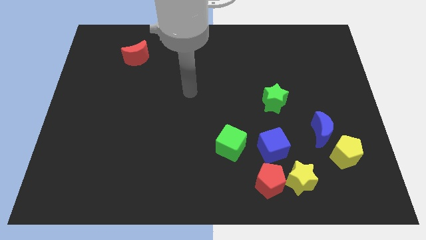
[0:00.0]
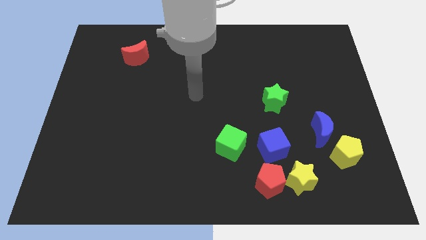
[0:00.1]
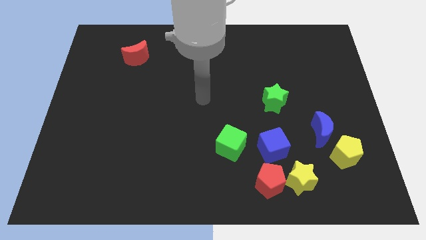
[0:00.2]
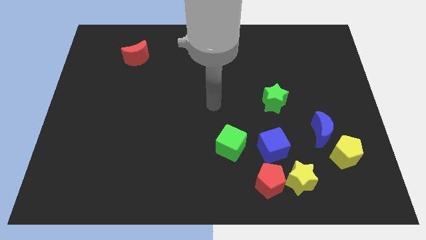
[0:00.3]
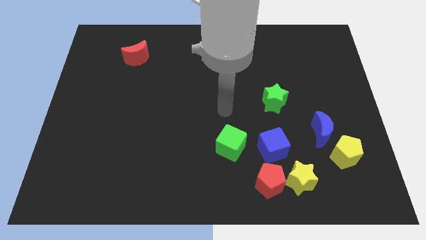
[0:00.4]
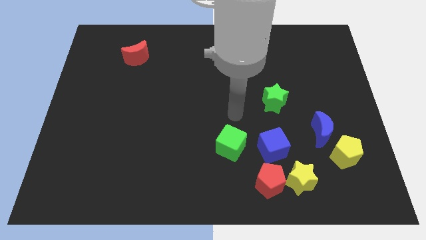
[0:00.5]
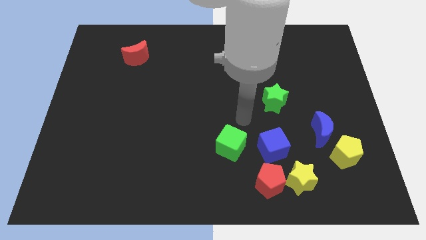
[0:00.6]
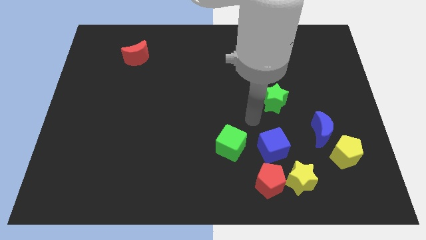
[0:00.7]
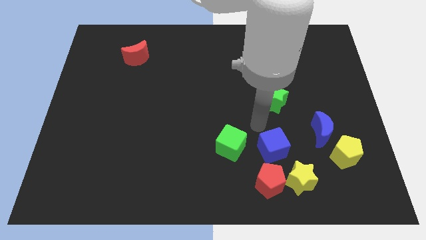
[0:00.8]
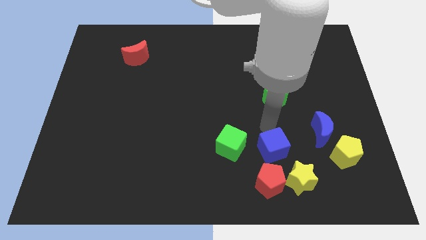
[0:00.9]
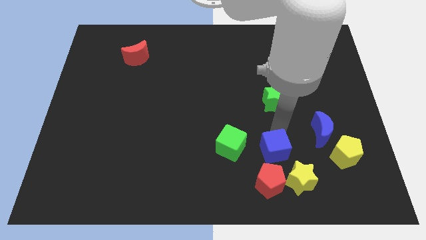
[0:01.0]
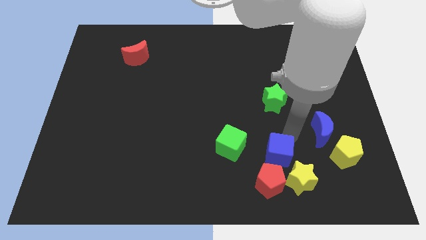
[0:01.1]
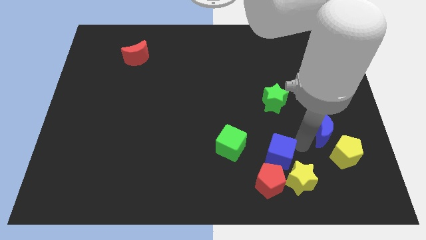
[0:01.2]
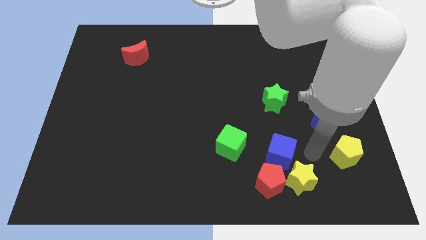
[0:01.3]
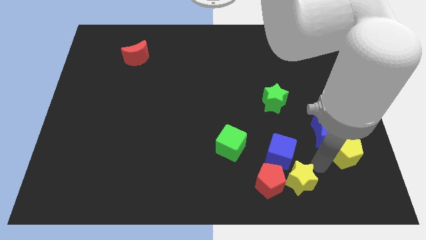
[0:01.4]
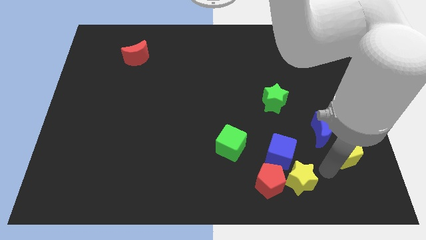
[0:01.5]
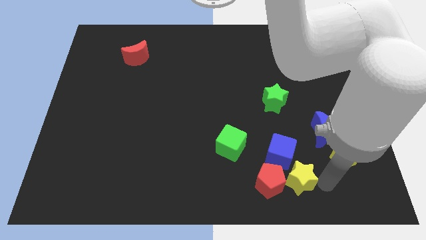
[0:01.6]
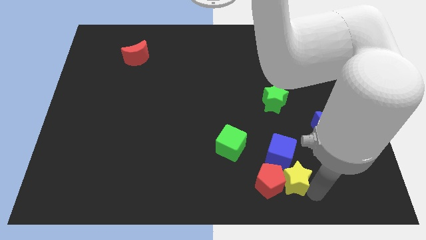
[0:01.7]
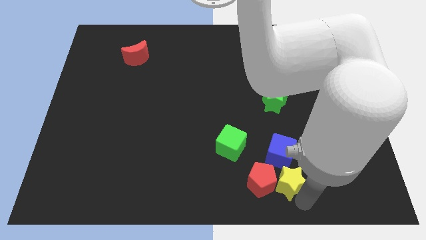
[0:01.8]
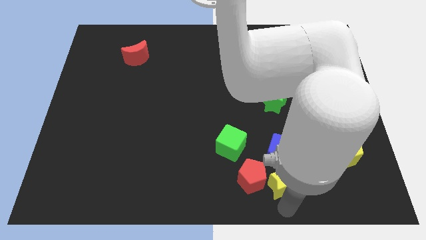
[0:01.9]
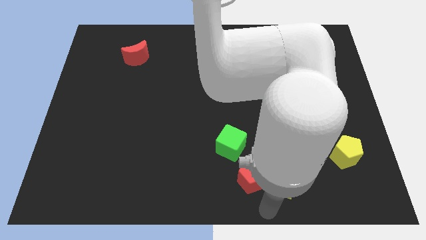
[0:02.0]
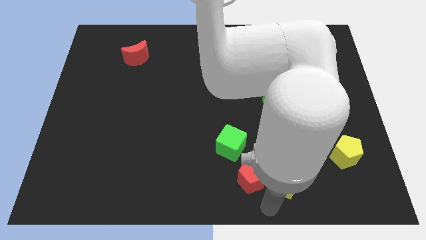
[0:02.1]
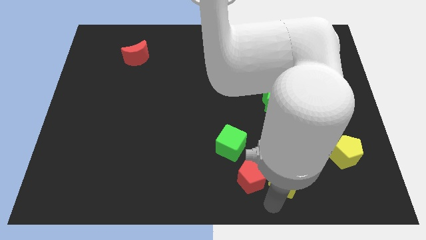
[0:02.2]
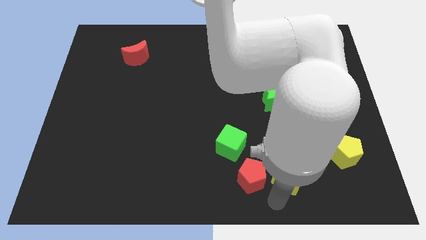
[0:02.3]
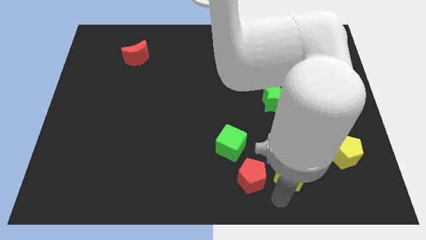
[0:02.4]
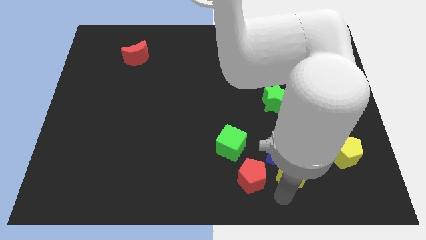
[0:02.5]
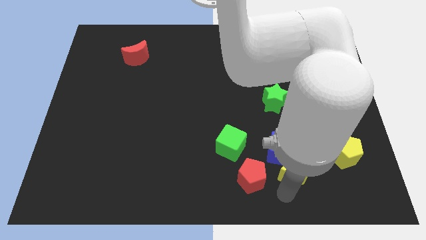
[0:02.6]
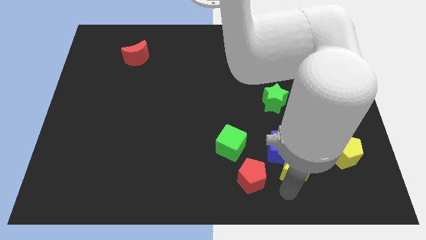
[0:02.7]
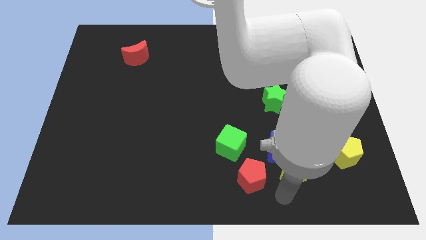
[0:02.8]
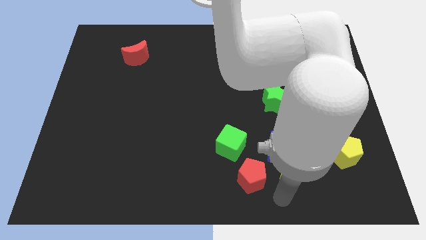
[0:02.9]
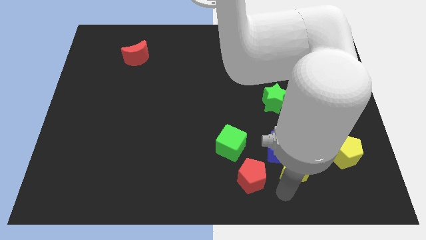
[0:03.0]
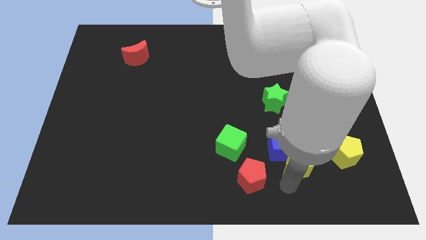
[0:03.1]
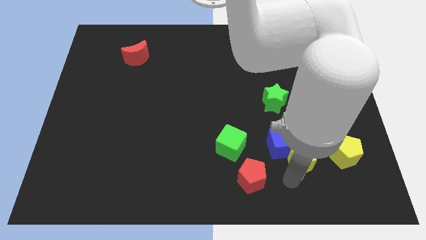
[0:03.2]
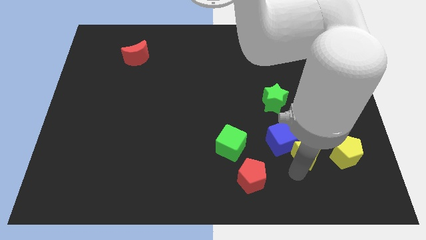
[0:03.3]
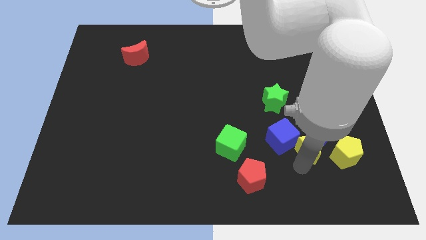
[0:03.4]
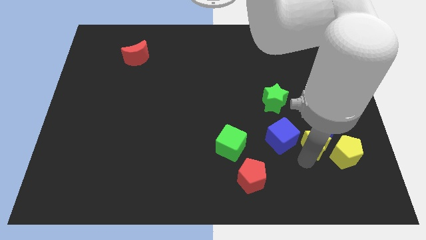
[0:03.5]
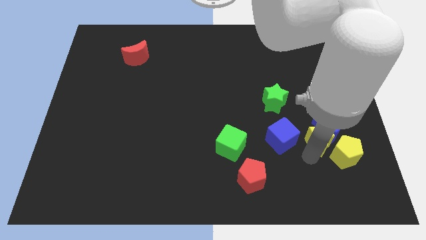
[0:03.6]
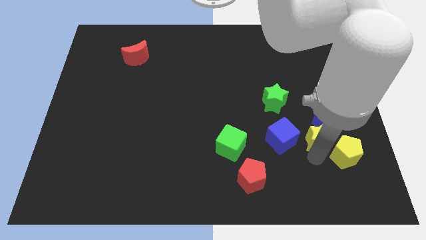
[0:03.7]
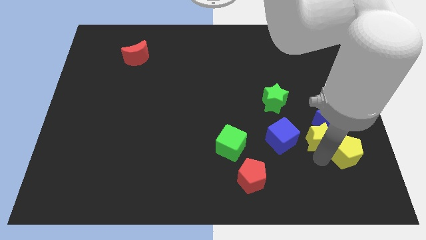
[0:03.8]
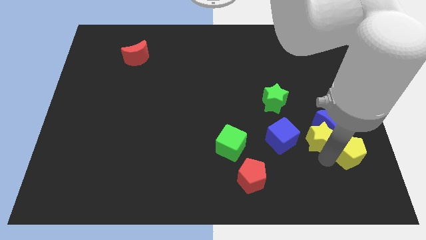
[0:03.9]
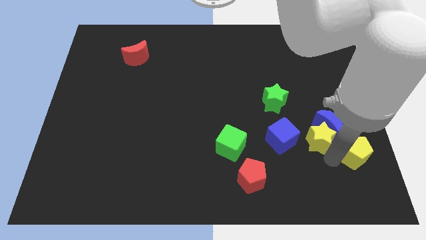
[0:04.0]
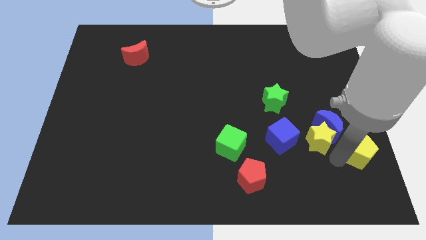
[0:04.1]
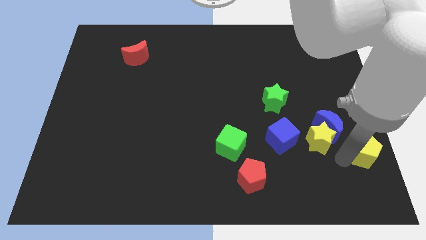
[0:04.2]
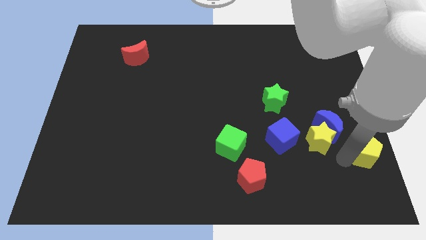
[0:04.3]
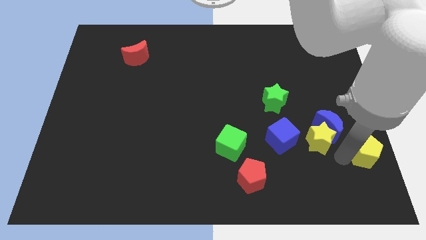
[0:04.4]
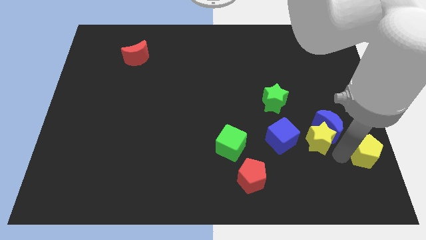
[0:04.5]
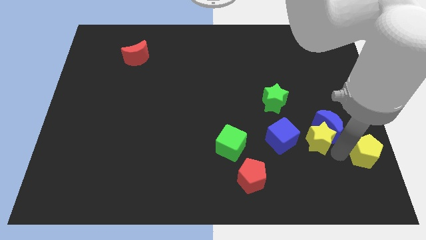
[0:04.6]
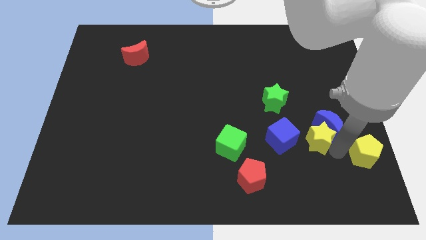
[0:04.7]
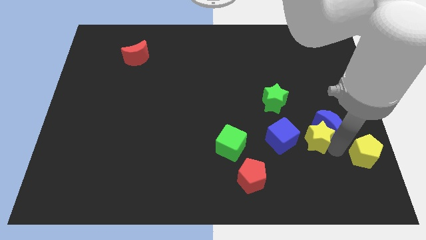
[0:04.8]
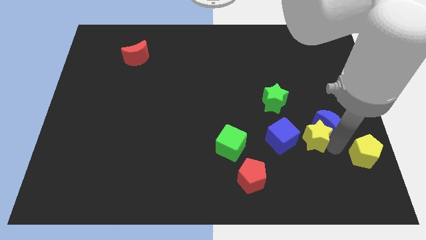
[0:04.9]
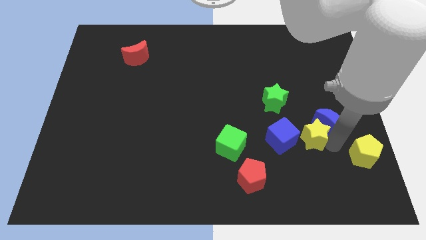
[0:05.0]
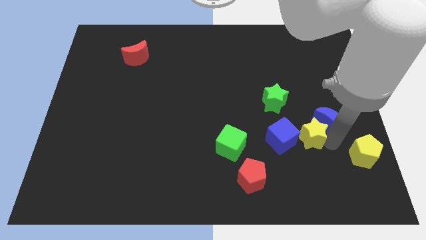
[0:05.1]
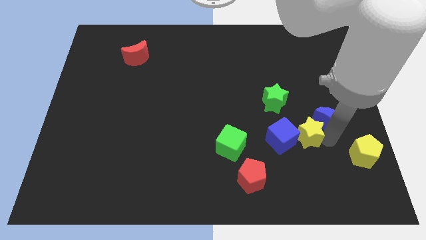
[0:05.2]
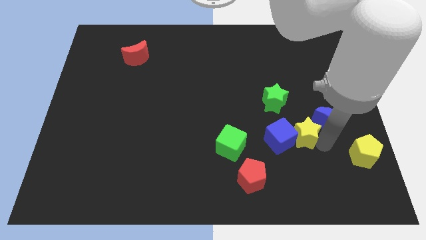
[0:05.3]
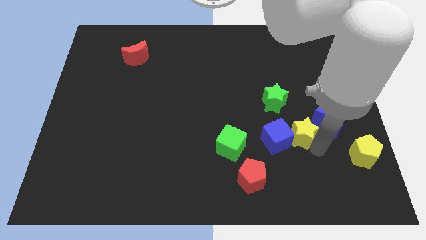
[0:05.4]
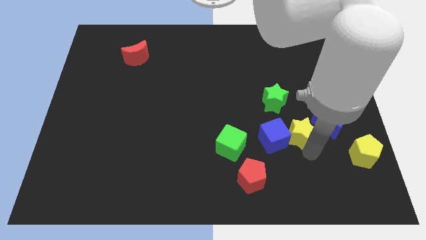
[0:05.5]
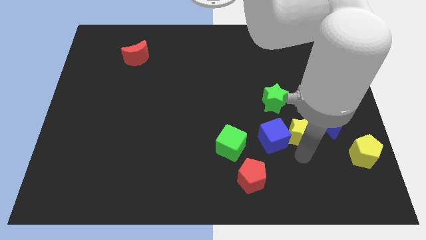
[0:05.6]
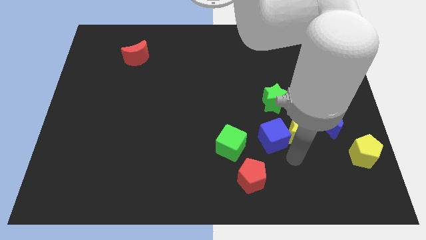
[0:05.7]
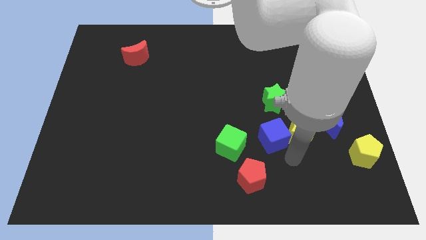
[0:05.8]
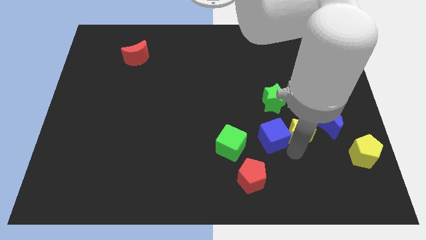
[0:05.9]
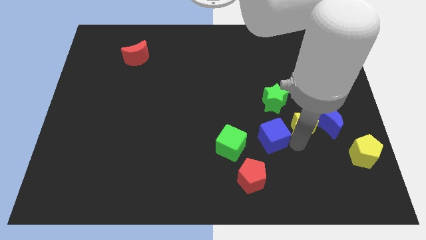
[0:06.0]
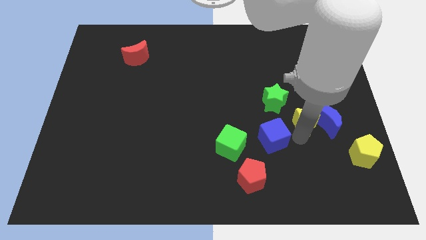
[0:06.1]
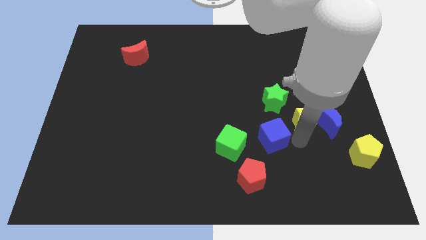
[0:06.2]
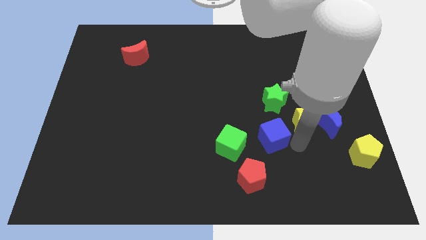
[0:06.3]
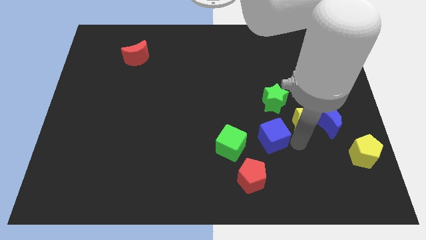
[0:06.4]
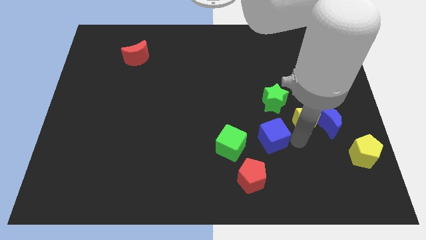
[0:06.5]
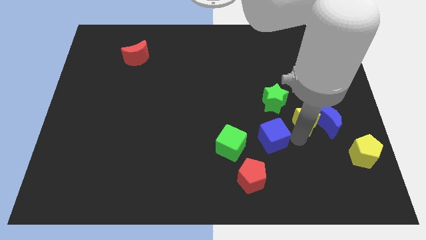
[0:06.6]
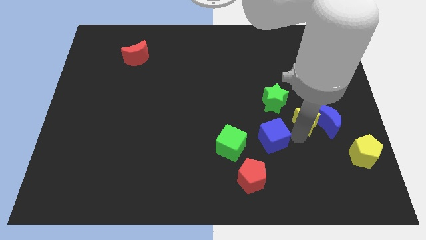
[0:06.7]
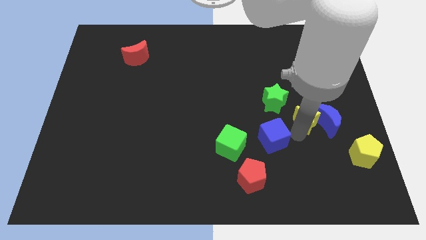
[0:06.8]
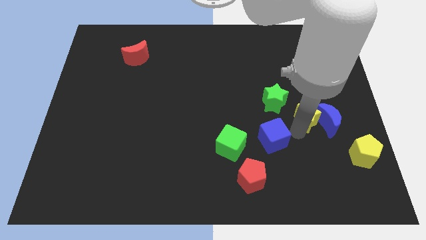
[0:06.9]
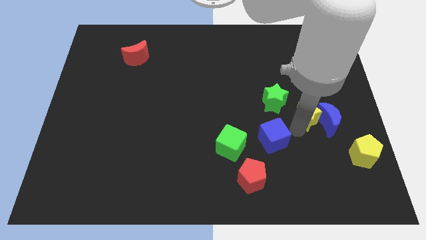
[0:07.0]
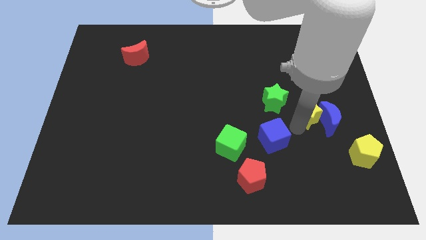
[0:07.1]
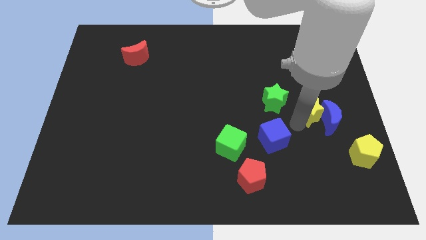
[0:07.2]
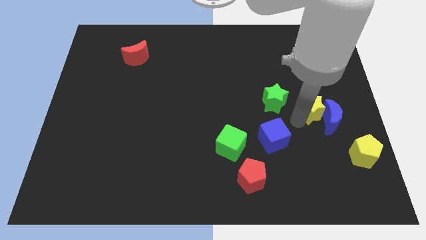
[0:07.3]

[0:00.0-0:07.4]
push the yellow star above the blue moon
